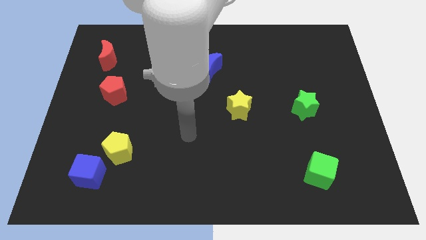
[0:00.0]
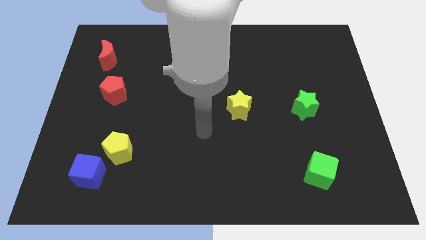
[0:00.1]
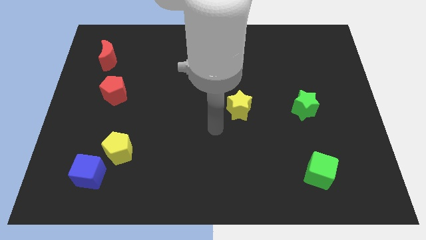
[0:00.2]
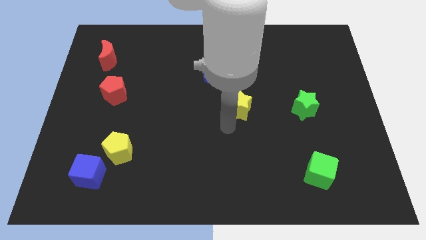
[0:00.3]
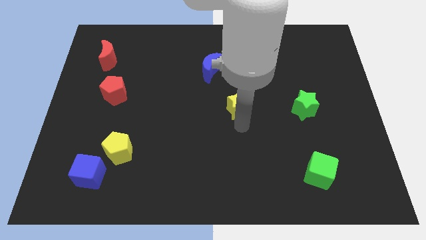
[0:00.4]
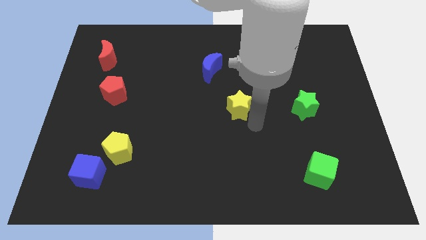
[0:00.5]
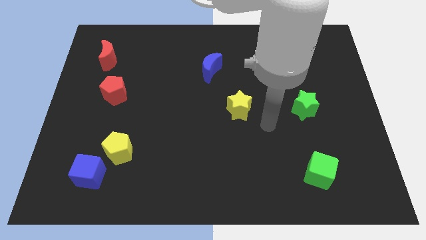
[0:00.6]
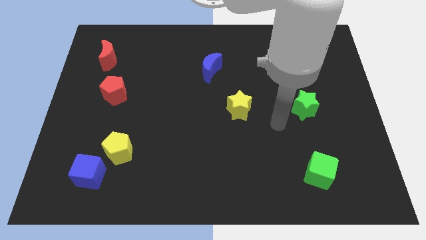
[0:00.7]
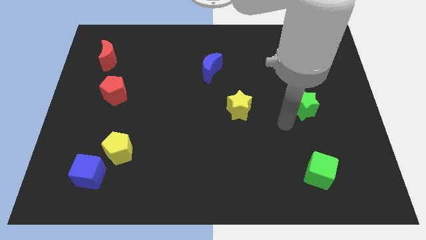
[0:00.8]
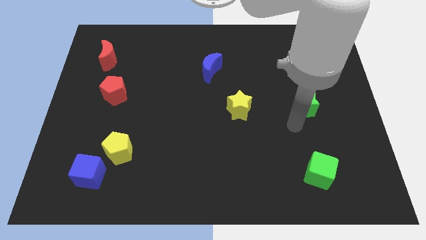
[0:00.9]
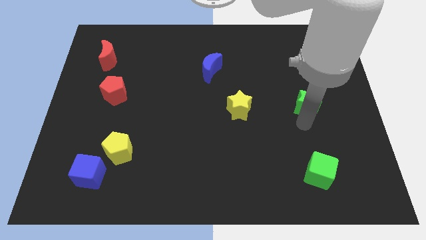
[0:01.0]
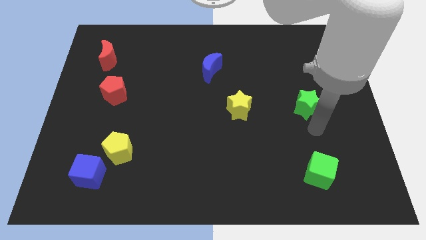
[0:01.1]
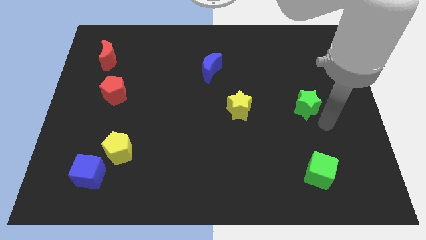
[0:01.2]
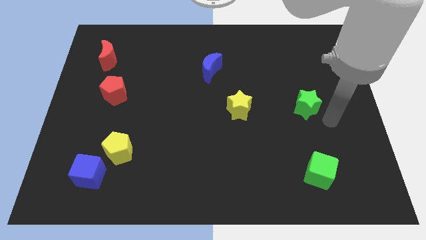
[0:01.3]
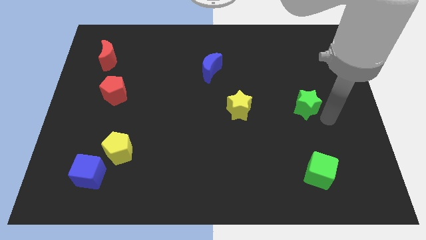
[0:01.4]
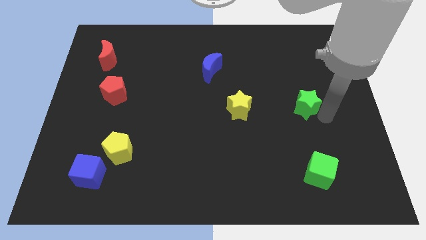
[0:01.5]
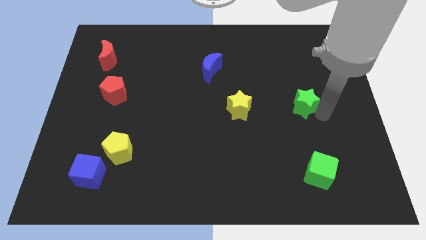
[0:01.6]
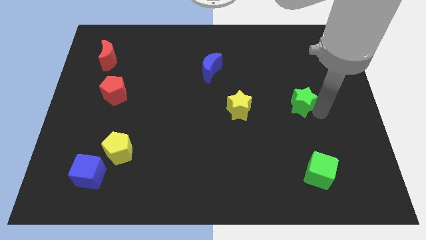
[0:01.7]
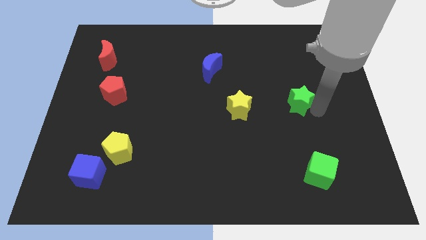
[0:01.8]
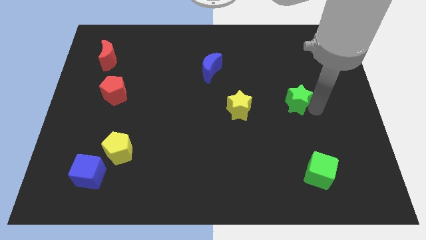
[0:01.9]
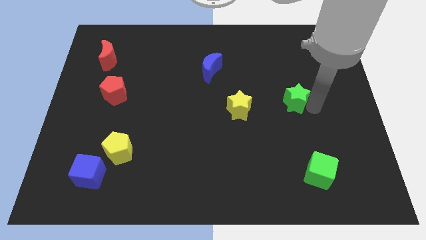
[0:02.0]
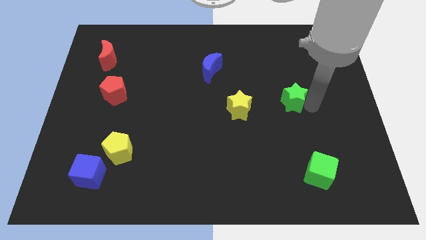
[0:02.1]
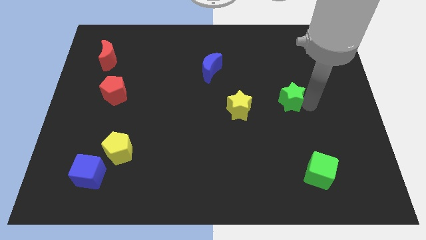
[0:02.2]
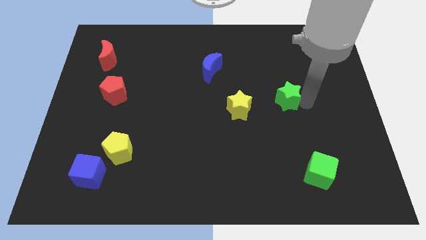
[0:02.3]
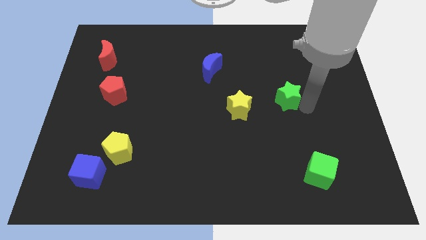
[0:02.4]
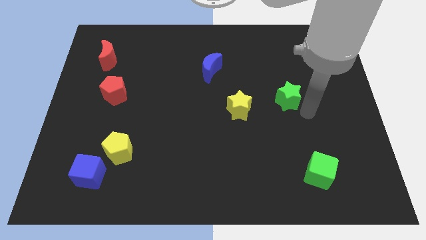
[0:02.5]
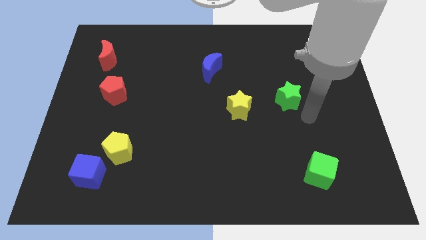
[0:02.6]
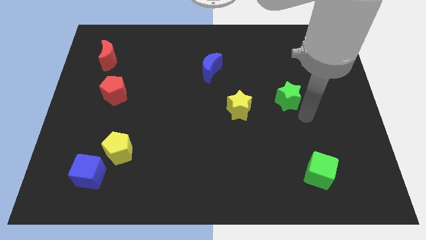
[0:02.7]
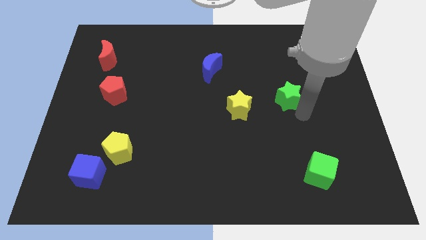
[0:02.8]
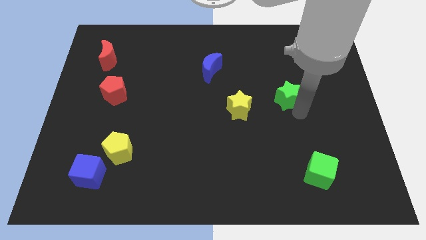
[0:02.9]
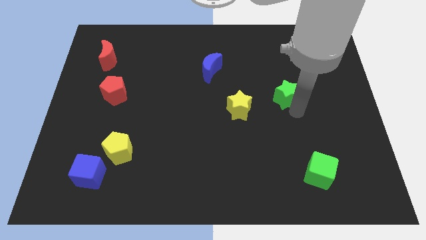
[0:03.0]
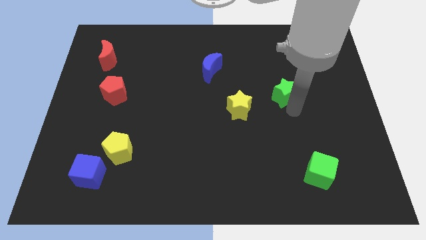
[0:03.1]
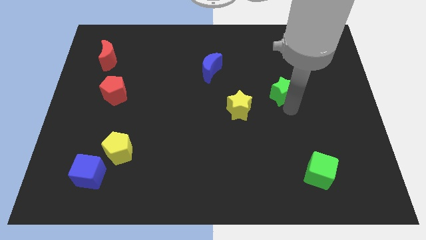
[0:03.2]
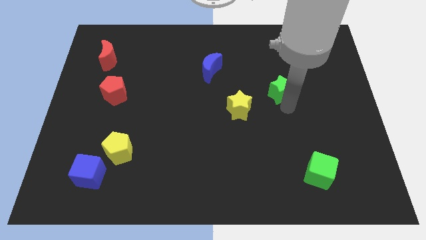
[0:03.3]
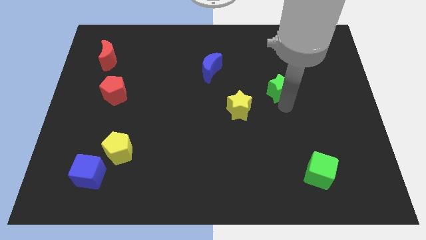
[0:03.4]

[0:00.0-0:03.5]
slightly push the green star up and to the left

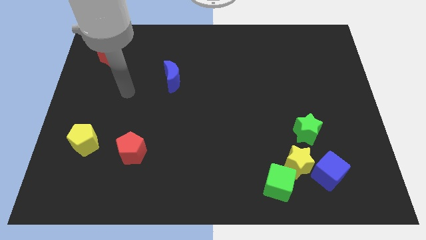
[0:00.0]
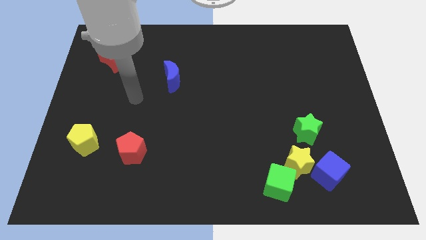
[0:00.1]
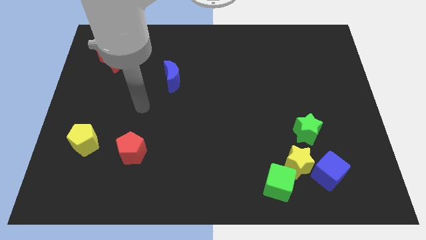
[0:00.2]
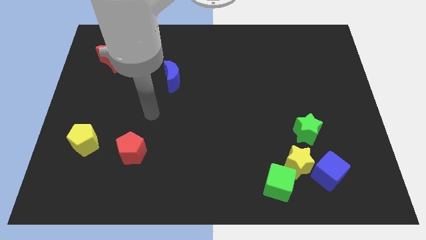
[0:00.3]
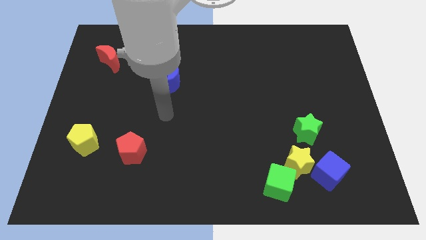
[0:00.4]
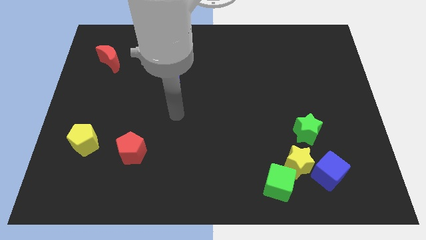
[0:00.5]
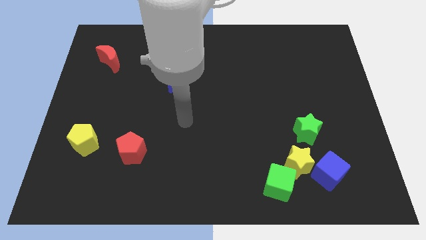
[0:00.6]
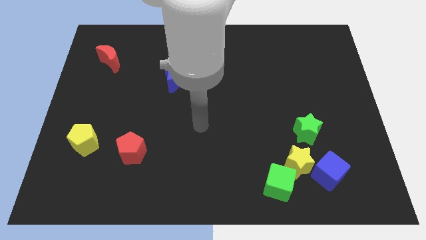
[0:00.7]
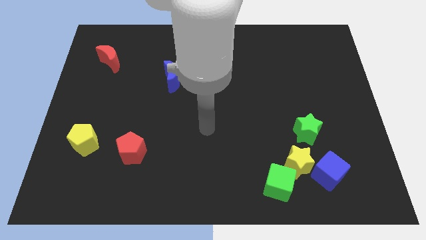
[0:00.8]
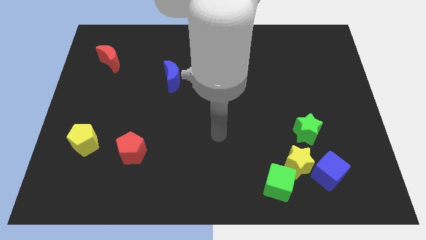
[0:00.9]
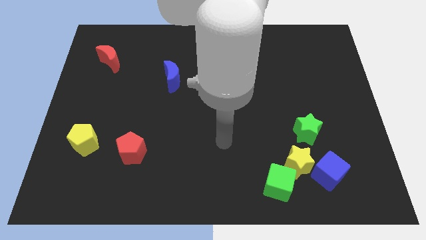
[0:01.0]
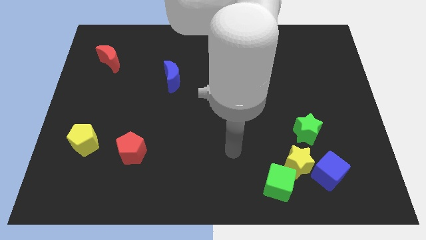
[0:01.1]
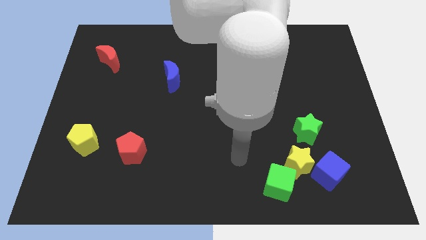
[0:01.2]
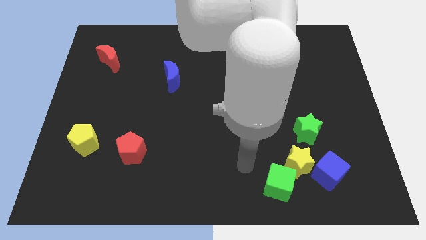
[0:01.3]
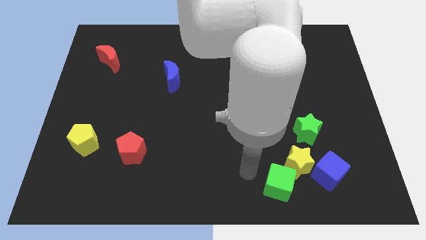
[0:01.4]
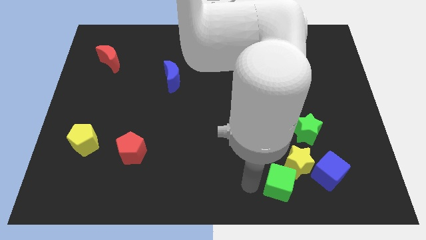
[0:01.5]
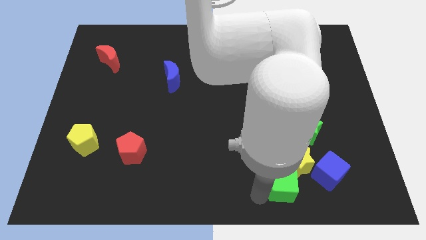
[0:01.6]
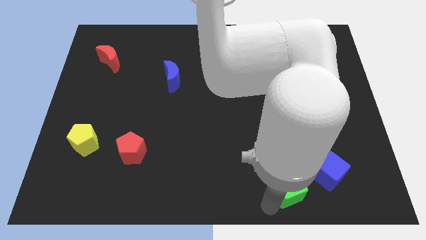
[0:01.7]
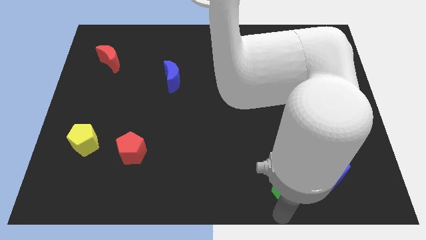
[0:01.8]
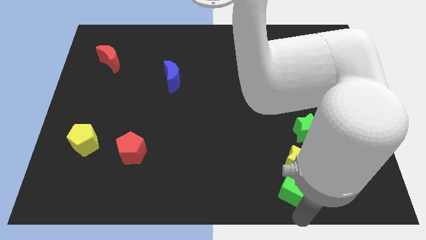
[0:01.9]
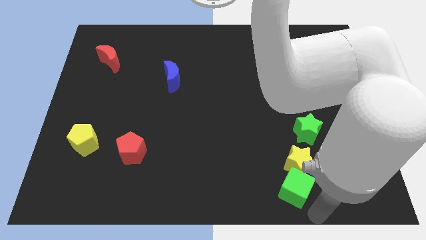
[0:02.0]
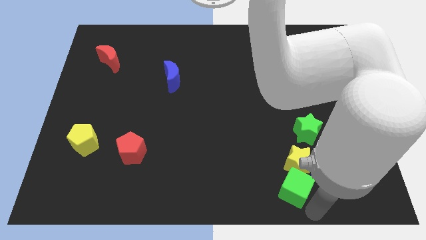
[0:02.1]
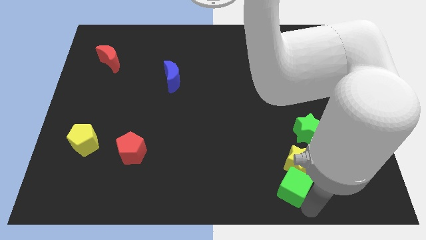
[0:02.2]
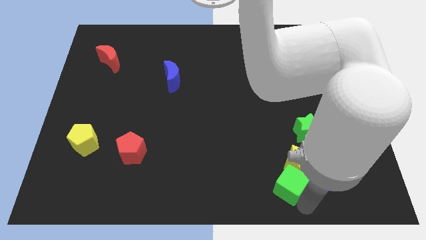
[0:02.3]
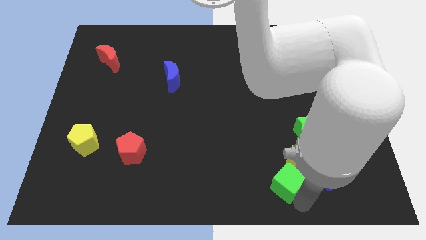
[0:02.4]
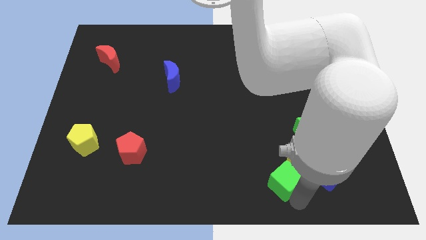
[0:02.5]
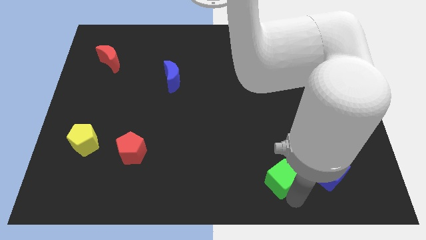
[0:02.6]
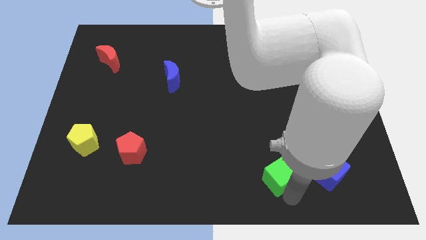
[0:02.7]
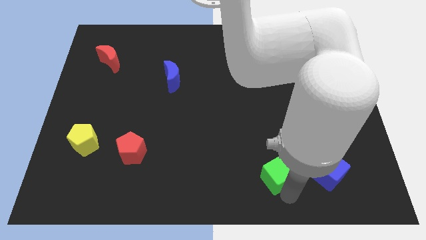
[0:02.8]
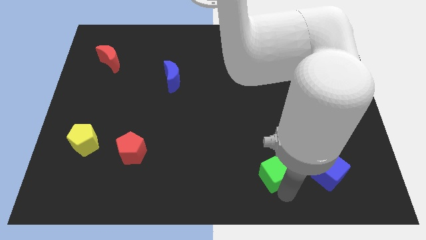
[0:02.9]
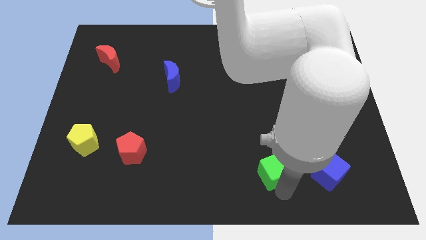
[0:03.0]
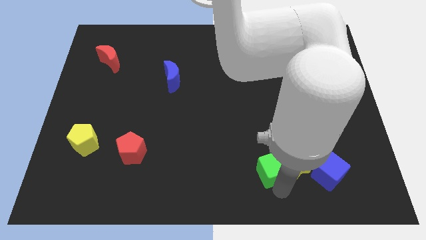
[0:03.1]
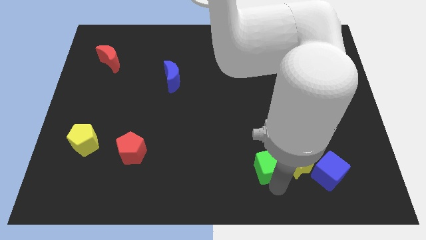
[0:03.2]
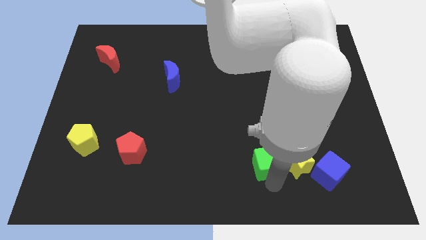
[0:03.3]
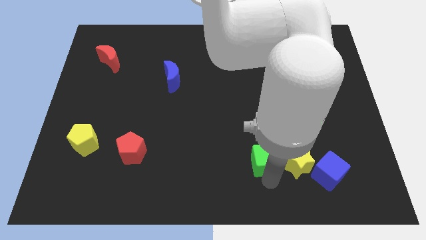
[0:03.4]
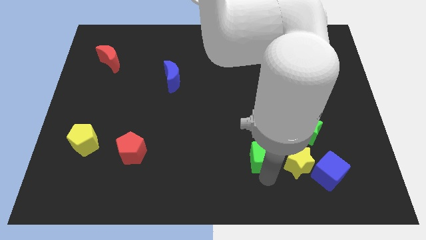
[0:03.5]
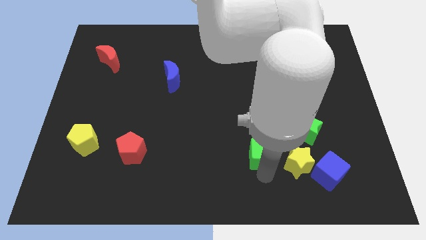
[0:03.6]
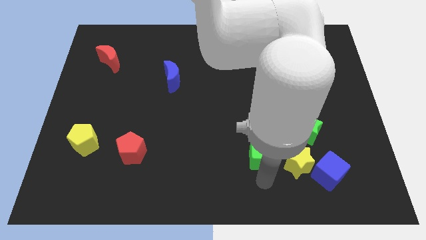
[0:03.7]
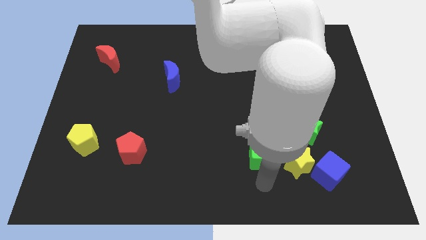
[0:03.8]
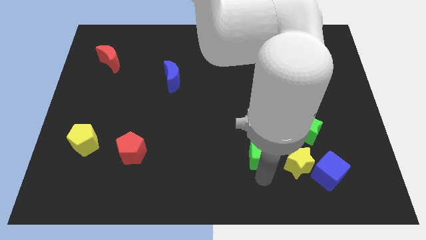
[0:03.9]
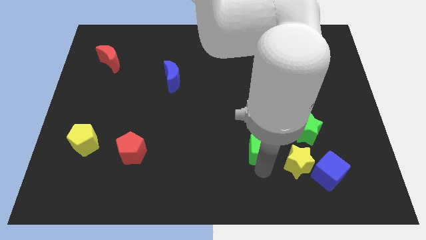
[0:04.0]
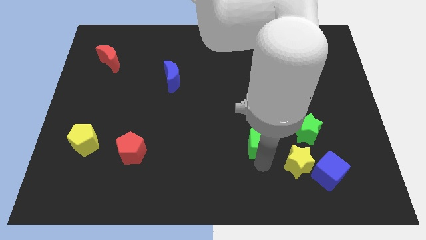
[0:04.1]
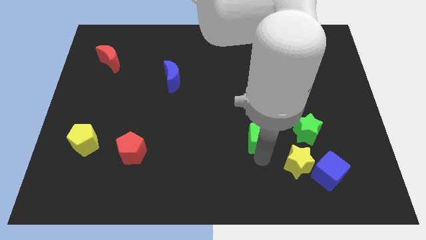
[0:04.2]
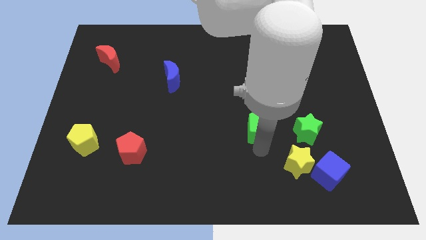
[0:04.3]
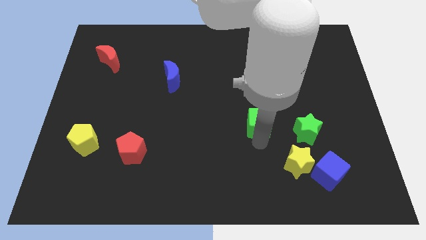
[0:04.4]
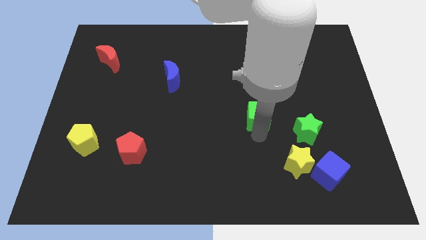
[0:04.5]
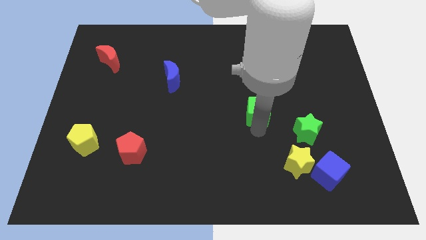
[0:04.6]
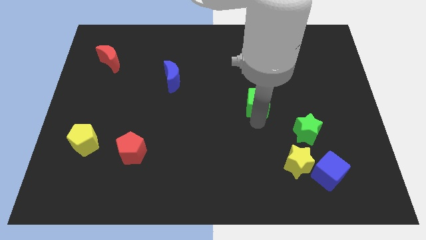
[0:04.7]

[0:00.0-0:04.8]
push the green cube up

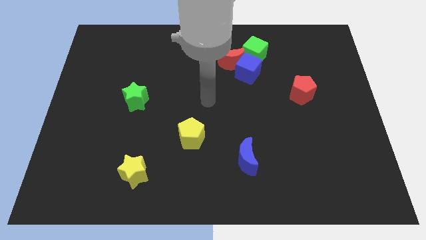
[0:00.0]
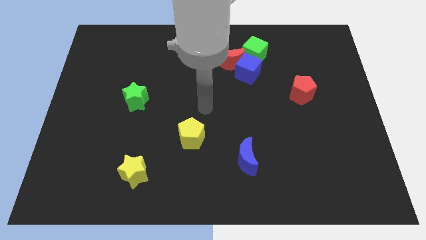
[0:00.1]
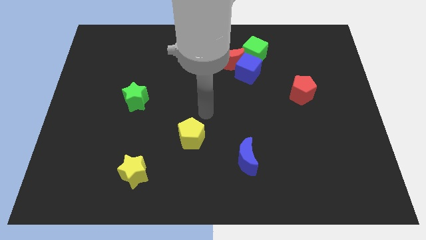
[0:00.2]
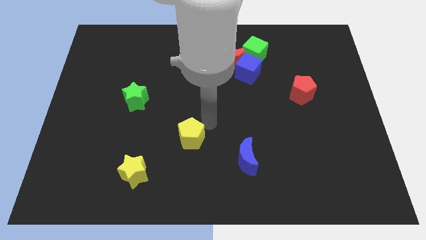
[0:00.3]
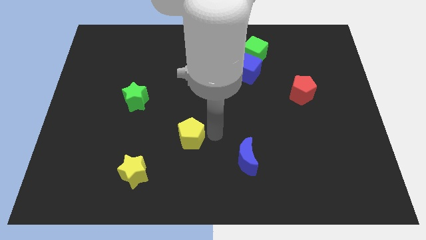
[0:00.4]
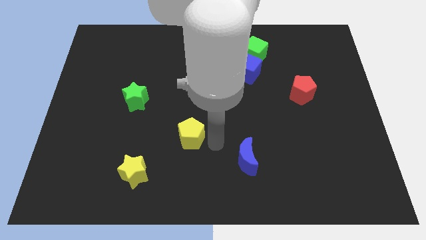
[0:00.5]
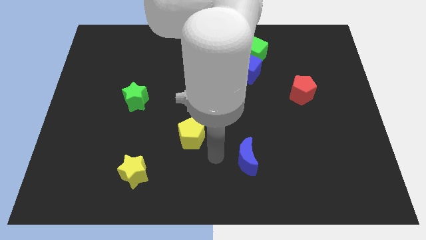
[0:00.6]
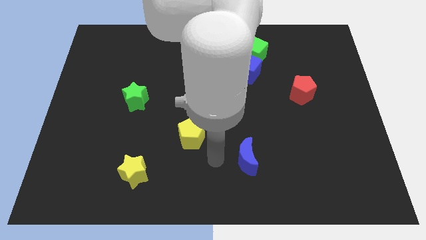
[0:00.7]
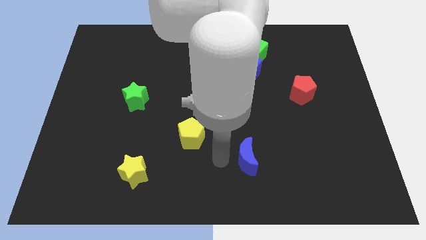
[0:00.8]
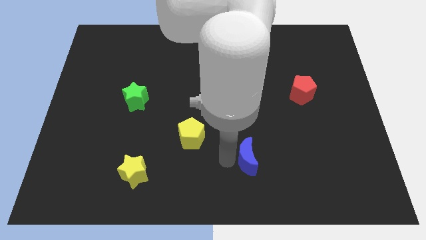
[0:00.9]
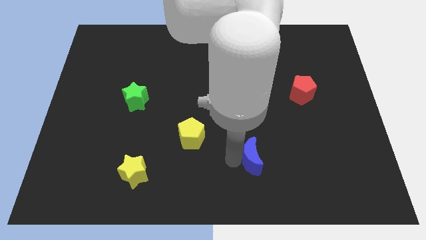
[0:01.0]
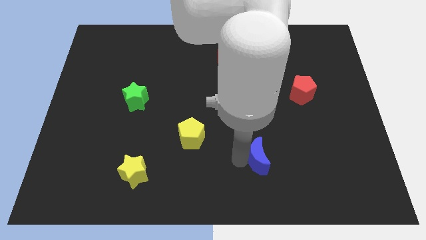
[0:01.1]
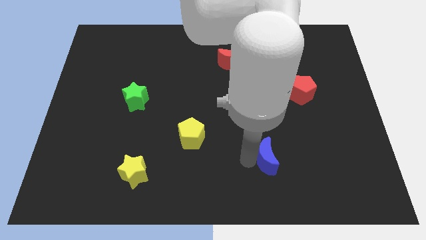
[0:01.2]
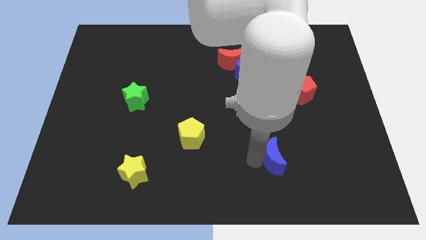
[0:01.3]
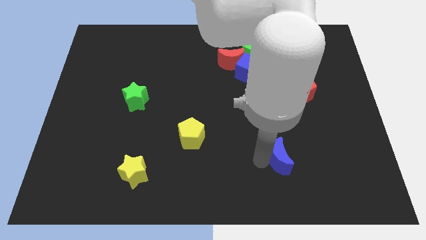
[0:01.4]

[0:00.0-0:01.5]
move the blue moon to the right a bit
